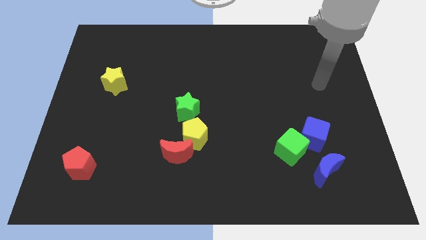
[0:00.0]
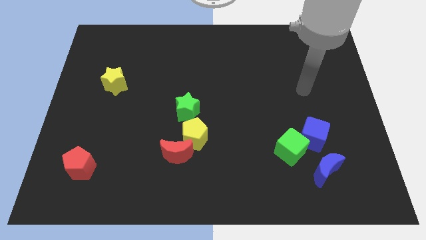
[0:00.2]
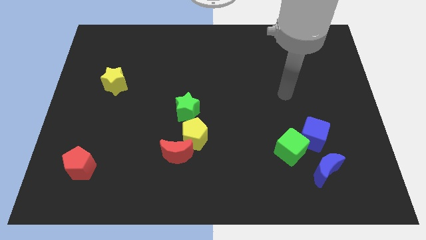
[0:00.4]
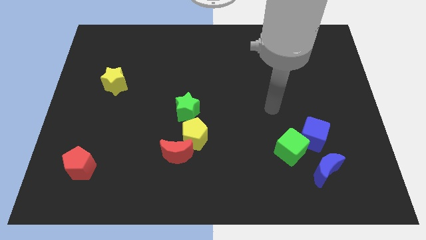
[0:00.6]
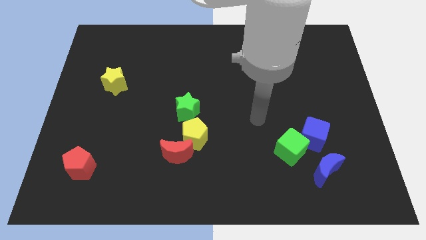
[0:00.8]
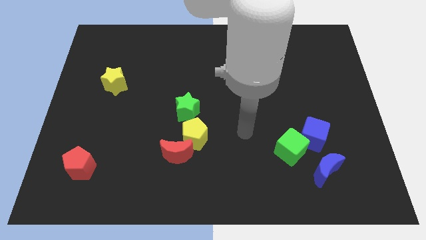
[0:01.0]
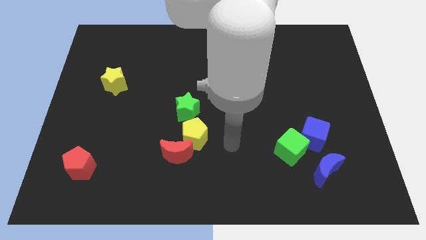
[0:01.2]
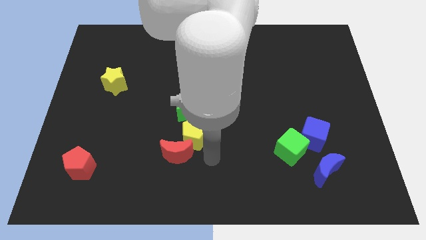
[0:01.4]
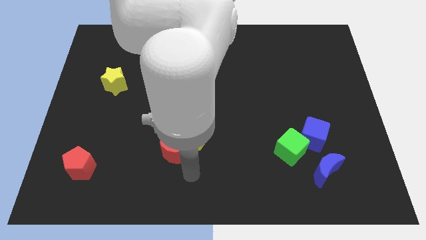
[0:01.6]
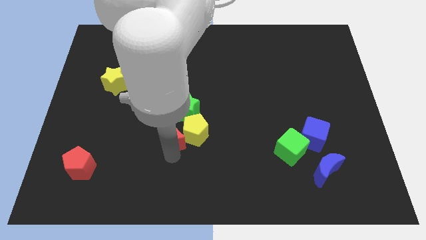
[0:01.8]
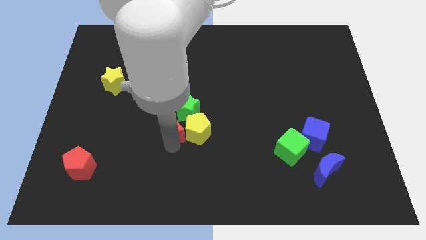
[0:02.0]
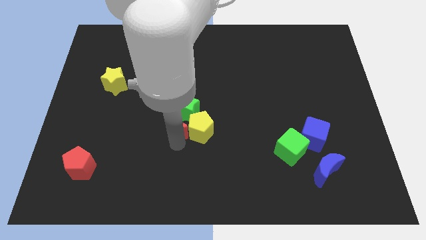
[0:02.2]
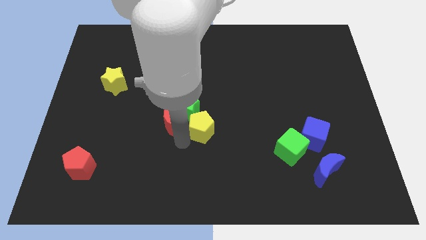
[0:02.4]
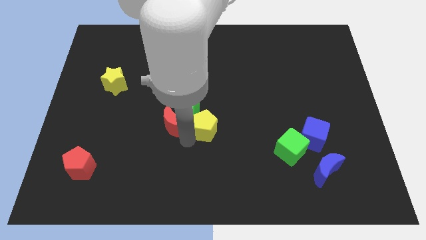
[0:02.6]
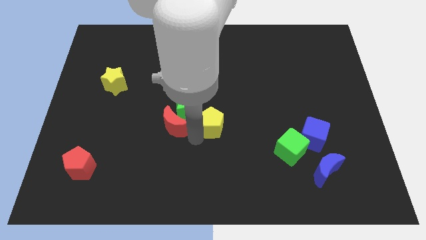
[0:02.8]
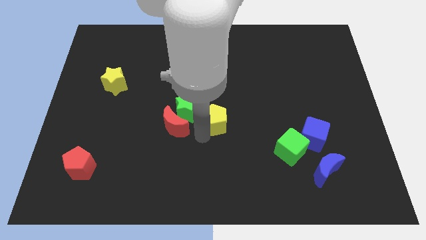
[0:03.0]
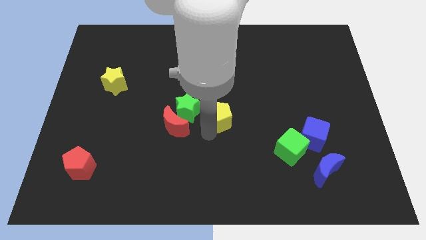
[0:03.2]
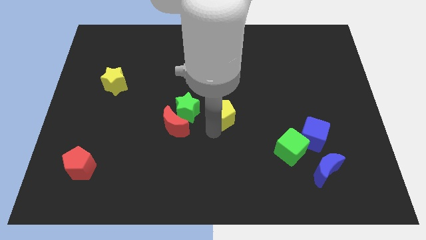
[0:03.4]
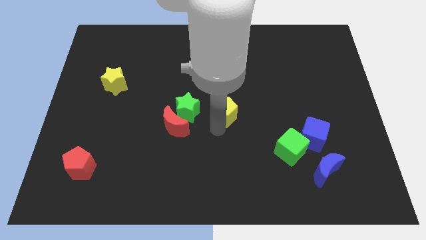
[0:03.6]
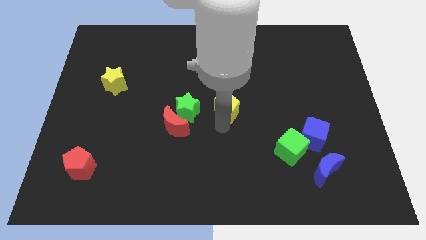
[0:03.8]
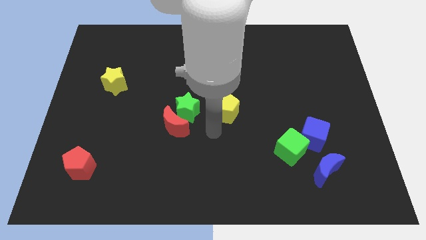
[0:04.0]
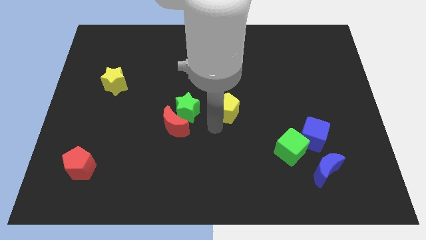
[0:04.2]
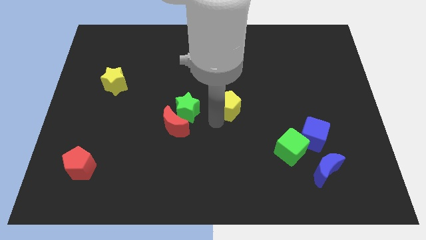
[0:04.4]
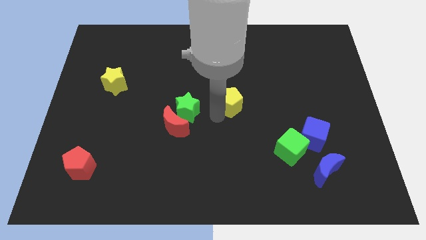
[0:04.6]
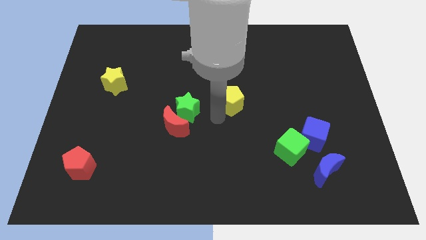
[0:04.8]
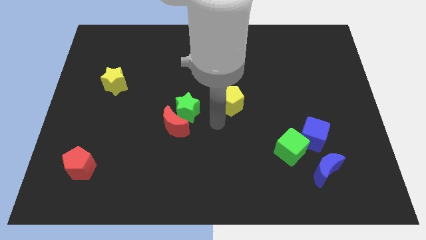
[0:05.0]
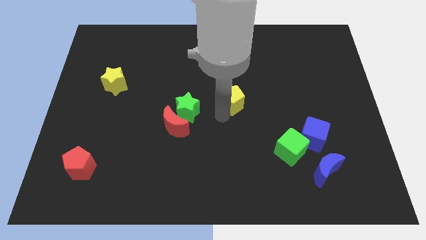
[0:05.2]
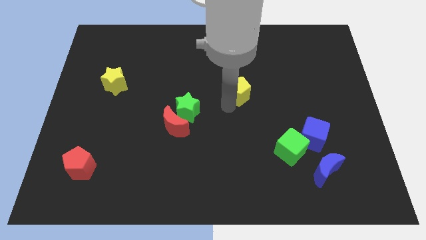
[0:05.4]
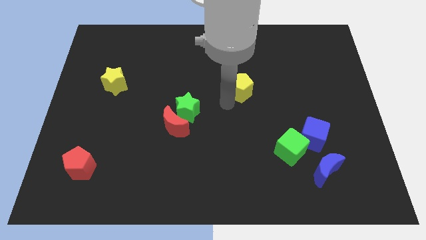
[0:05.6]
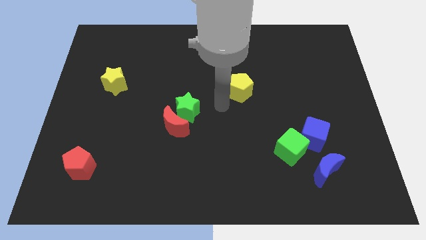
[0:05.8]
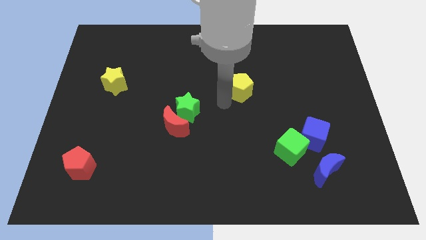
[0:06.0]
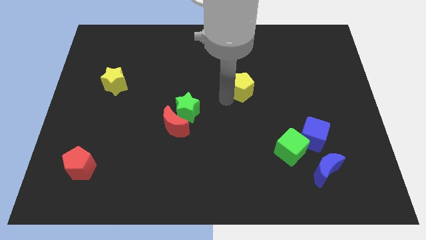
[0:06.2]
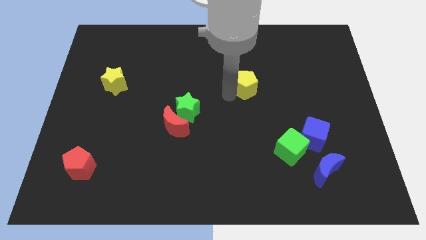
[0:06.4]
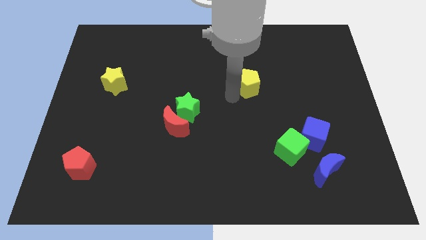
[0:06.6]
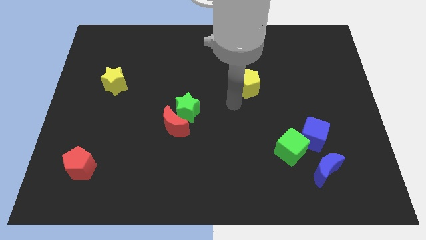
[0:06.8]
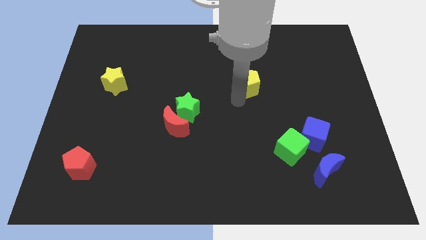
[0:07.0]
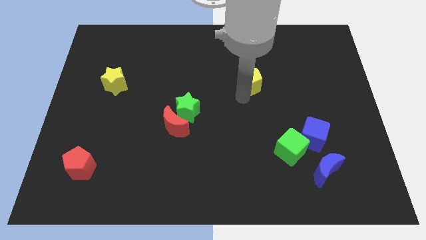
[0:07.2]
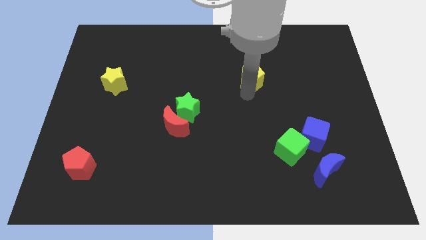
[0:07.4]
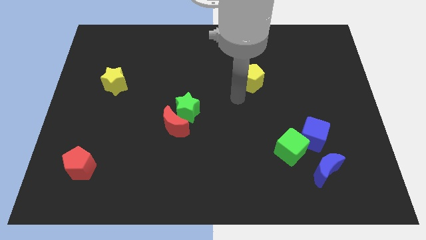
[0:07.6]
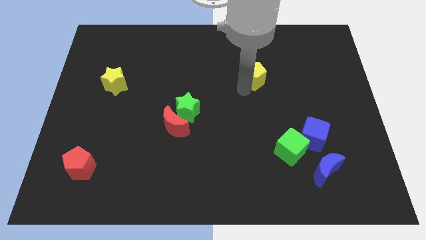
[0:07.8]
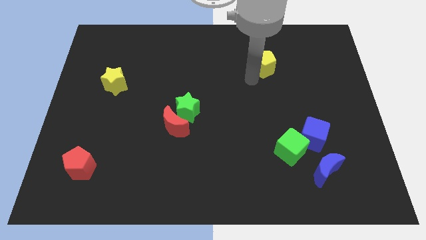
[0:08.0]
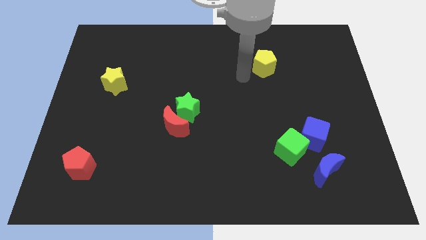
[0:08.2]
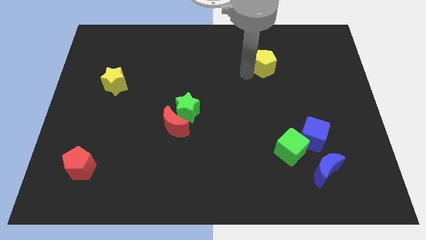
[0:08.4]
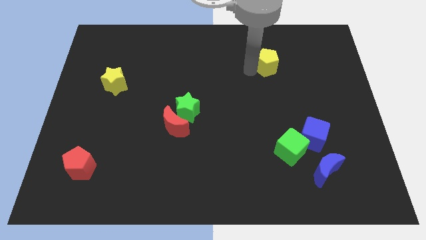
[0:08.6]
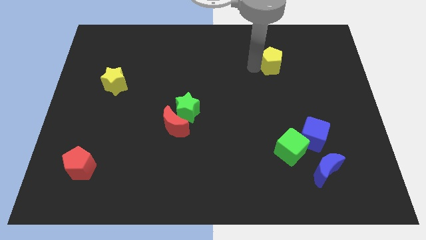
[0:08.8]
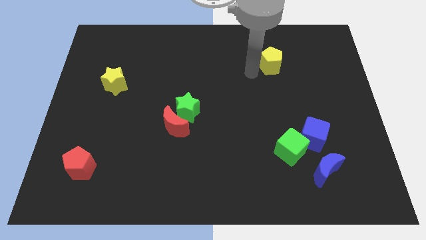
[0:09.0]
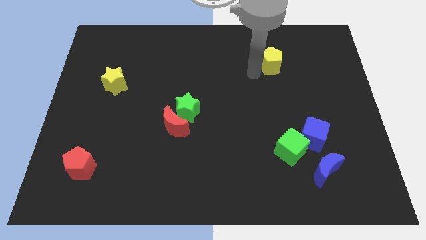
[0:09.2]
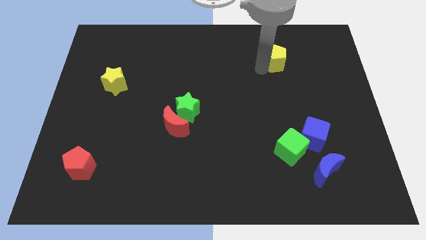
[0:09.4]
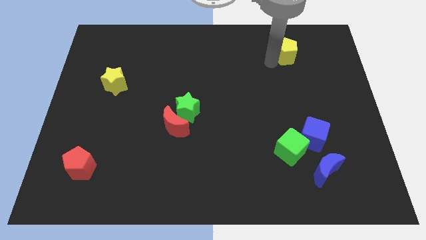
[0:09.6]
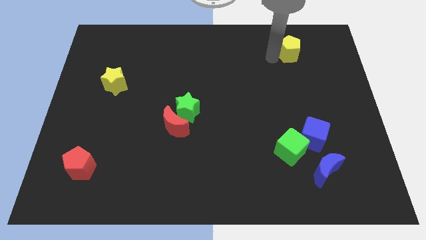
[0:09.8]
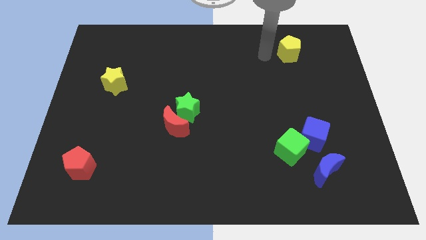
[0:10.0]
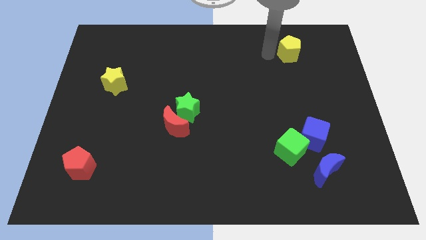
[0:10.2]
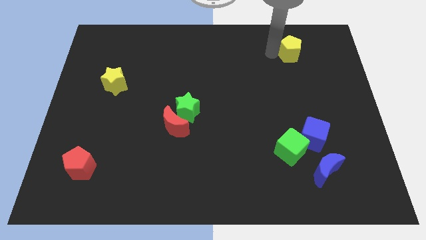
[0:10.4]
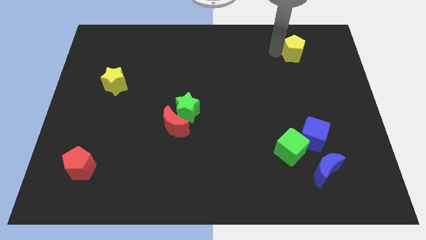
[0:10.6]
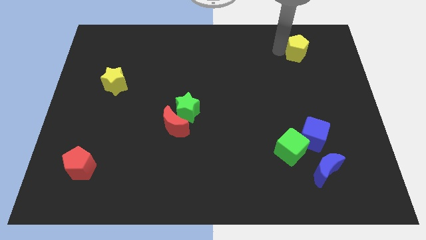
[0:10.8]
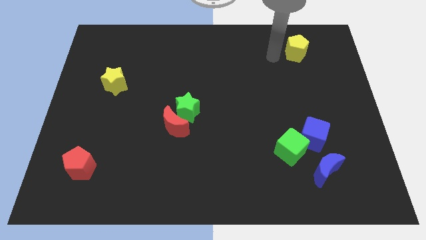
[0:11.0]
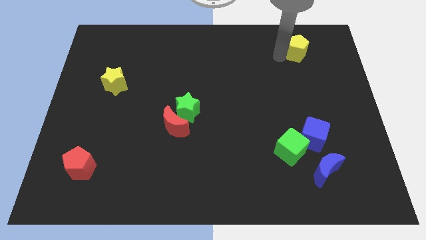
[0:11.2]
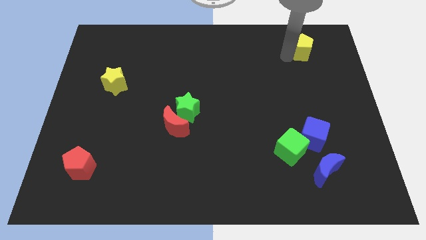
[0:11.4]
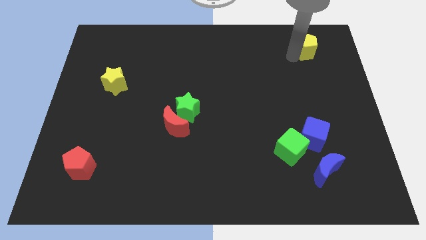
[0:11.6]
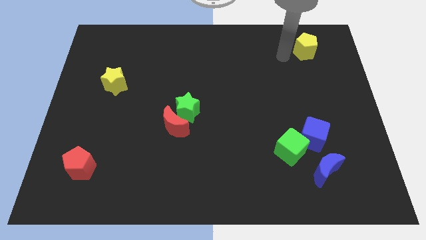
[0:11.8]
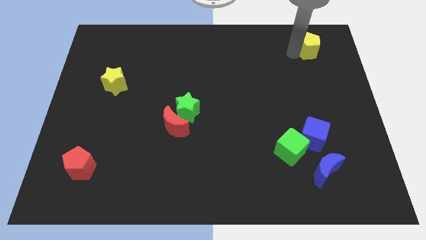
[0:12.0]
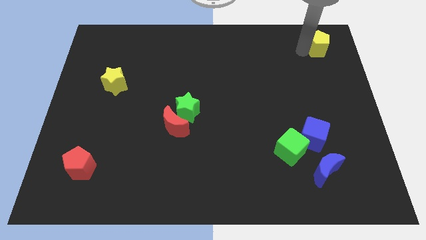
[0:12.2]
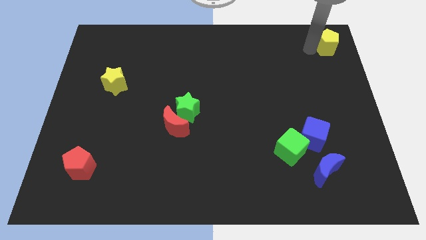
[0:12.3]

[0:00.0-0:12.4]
push the yellow pentagon to the top right corner

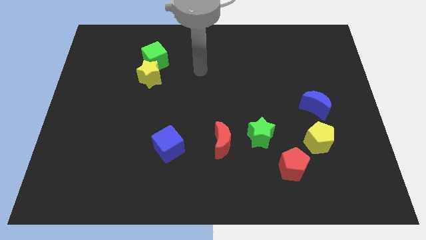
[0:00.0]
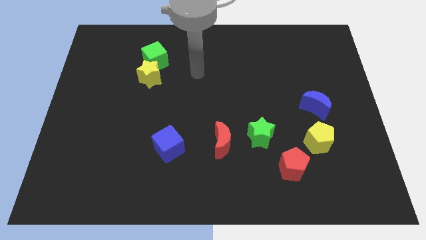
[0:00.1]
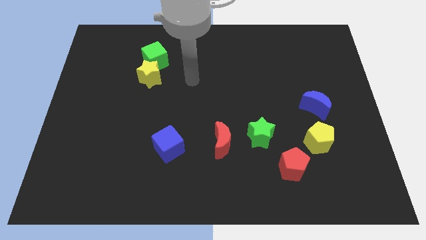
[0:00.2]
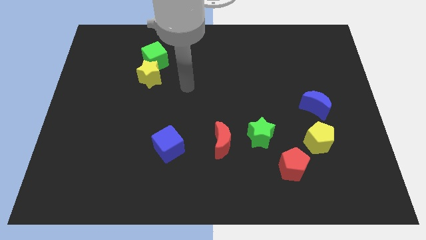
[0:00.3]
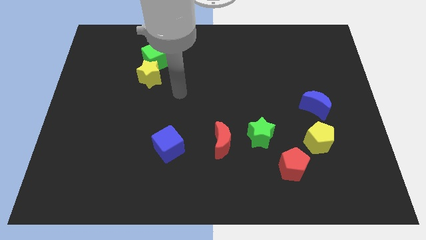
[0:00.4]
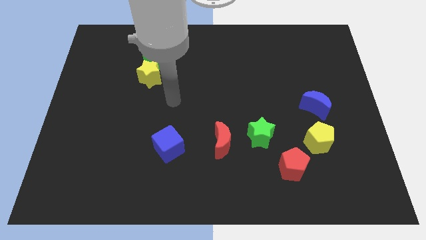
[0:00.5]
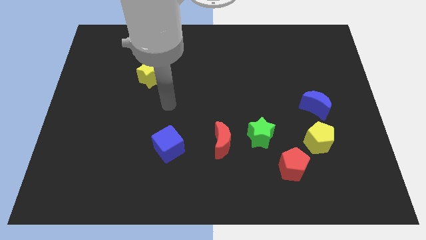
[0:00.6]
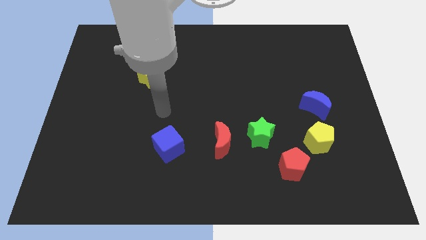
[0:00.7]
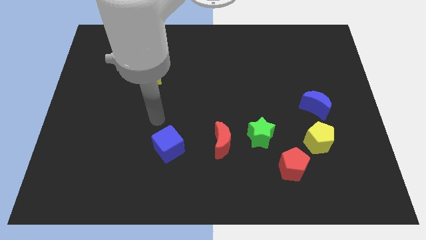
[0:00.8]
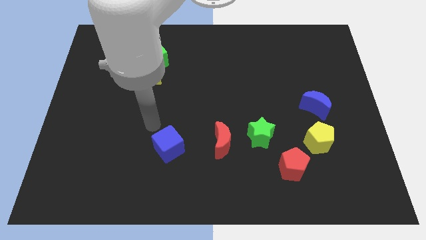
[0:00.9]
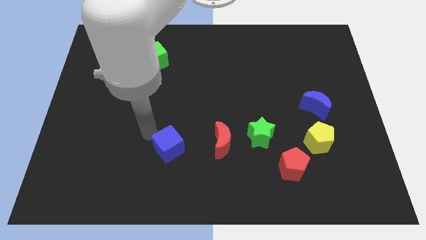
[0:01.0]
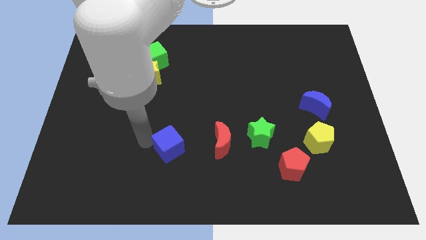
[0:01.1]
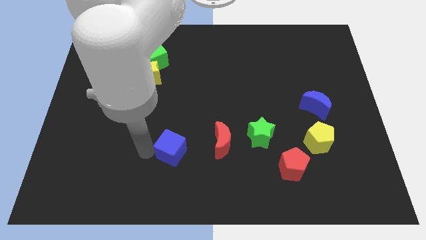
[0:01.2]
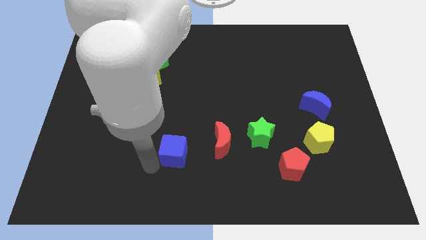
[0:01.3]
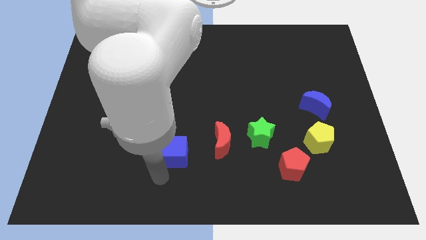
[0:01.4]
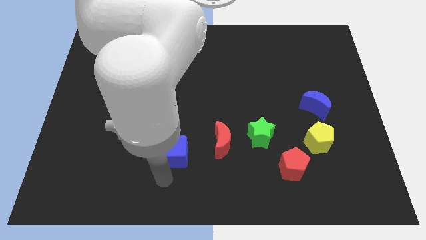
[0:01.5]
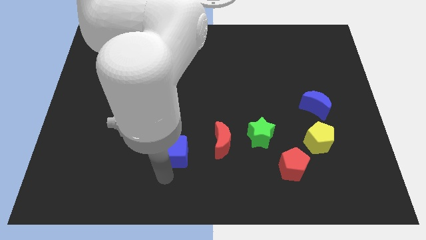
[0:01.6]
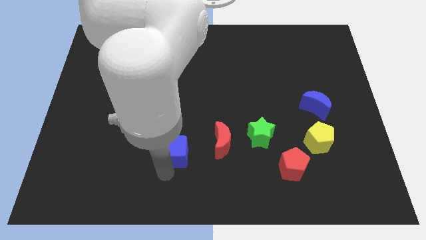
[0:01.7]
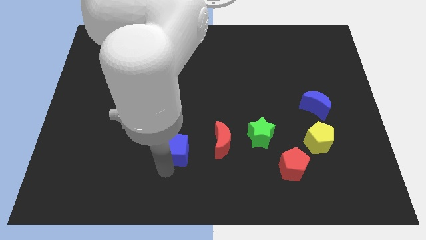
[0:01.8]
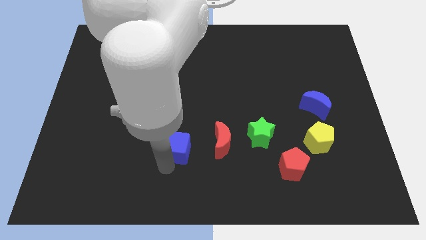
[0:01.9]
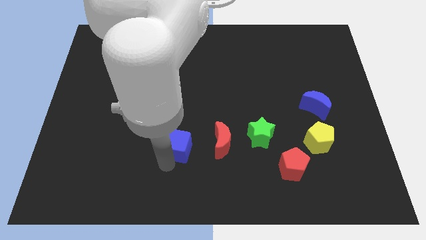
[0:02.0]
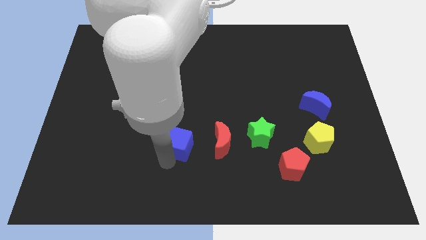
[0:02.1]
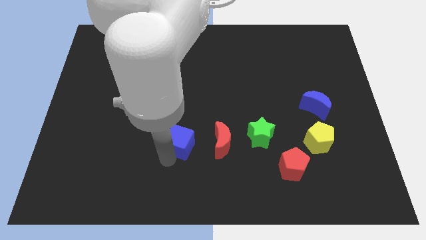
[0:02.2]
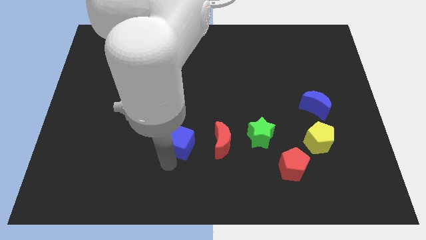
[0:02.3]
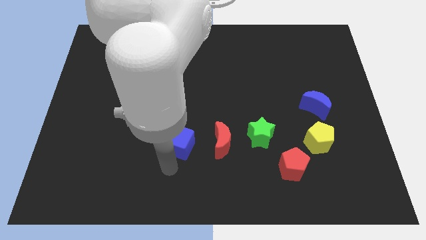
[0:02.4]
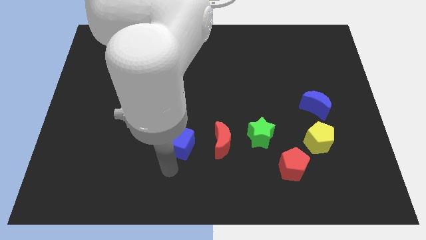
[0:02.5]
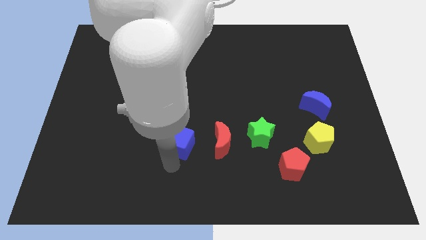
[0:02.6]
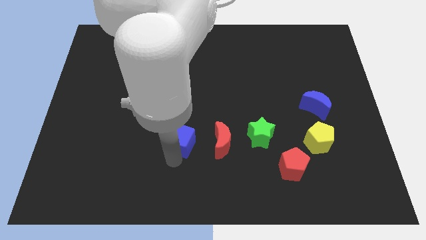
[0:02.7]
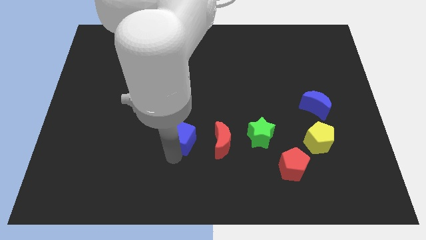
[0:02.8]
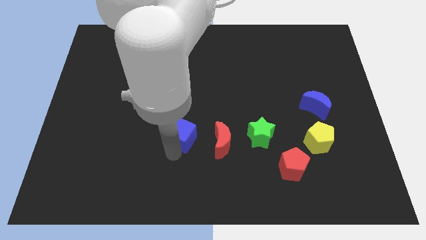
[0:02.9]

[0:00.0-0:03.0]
move the blue cube to the center
